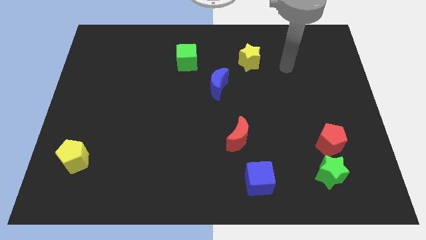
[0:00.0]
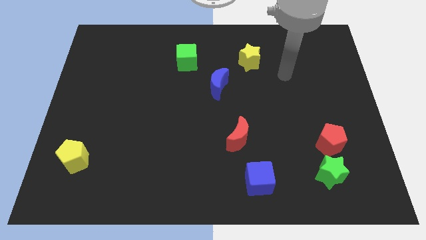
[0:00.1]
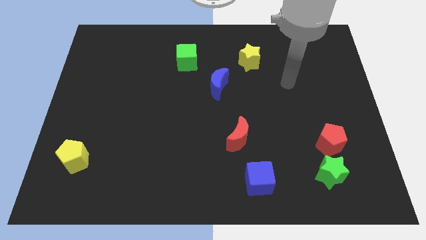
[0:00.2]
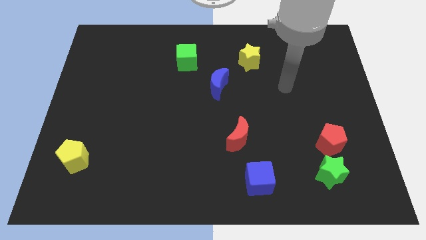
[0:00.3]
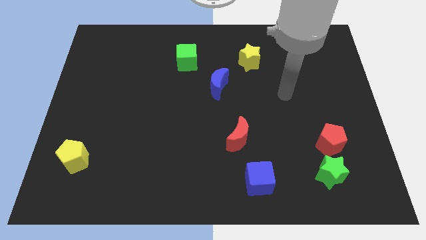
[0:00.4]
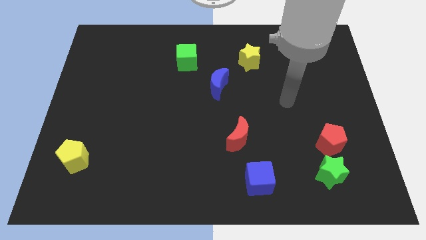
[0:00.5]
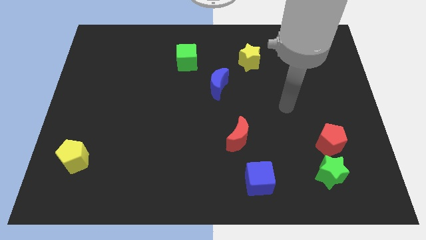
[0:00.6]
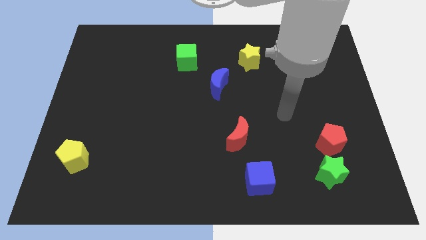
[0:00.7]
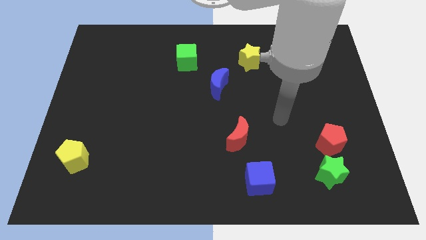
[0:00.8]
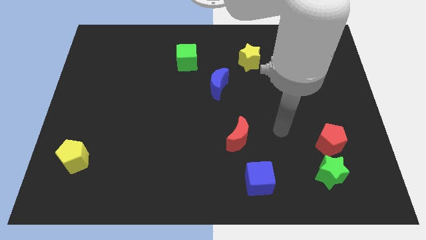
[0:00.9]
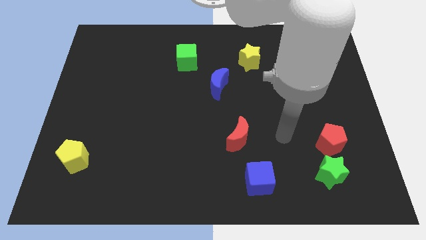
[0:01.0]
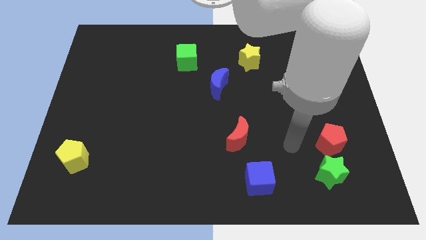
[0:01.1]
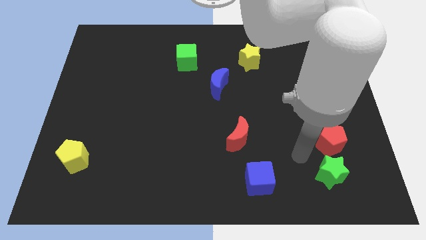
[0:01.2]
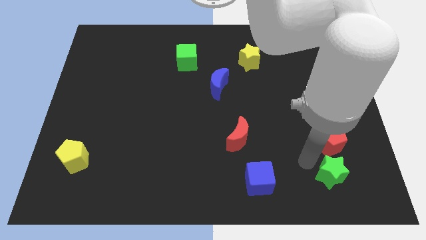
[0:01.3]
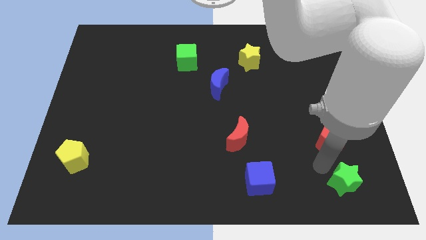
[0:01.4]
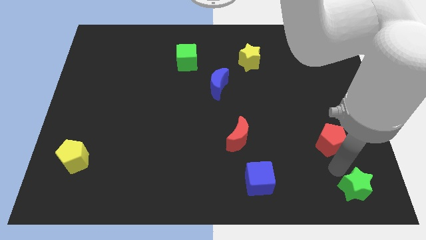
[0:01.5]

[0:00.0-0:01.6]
move the red pentagon away from the green star

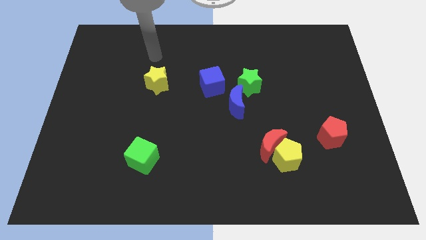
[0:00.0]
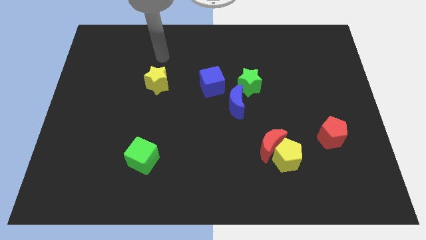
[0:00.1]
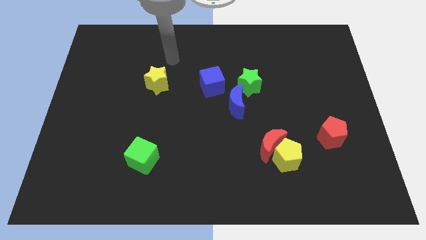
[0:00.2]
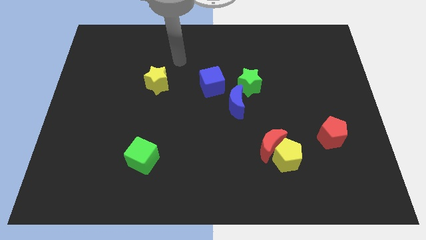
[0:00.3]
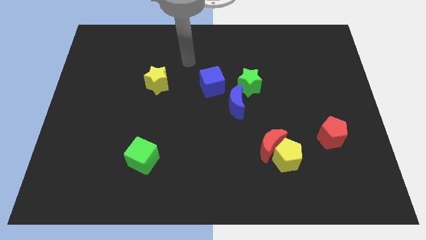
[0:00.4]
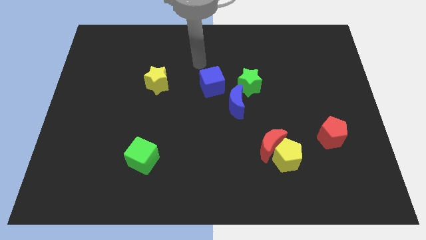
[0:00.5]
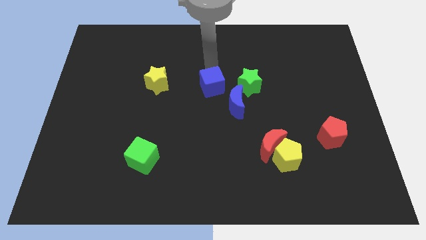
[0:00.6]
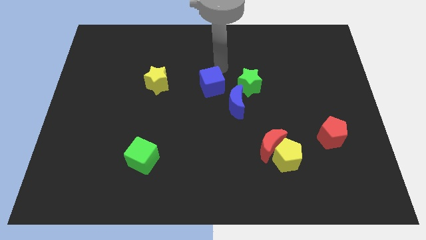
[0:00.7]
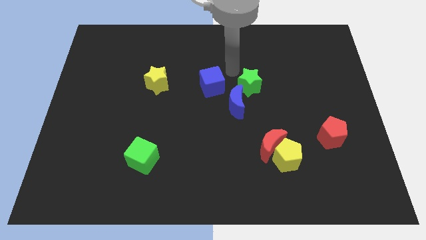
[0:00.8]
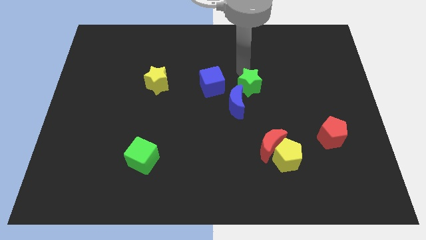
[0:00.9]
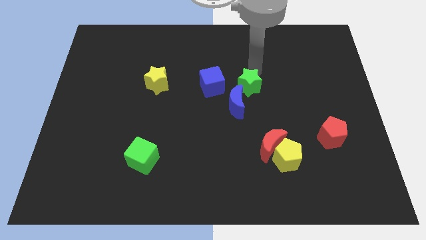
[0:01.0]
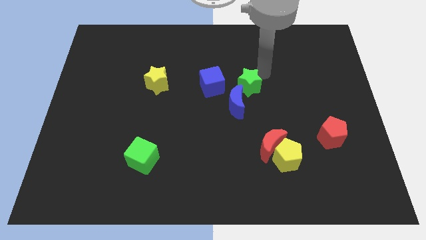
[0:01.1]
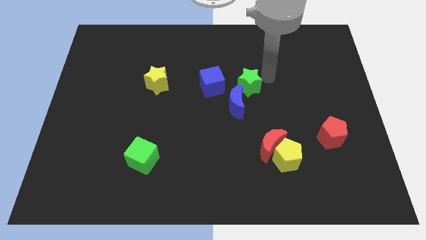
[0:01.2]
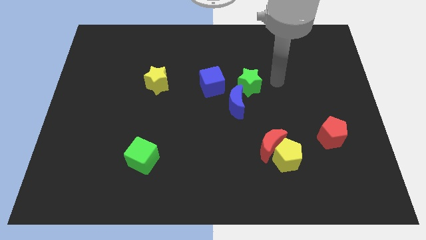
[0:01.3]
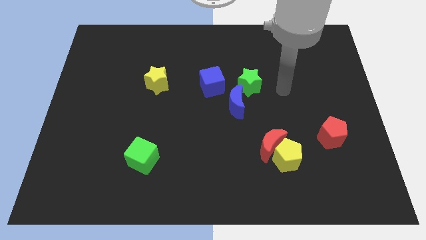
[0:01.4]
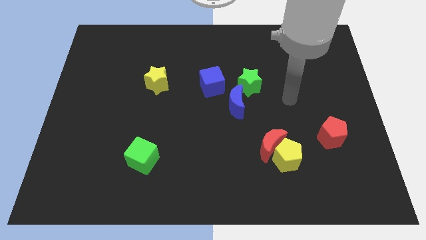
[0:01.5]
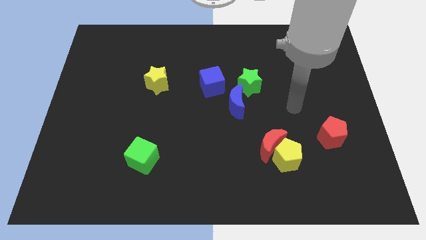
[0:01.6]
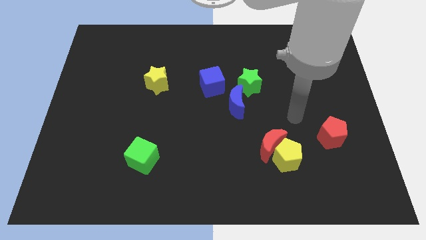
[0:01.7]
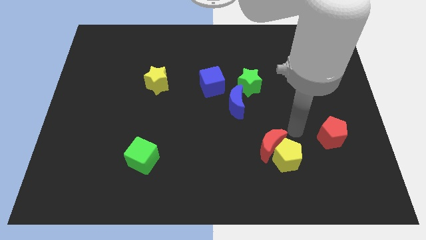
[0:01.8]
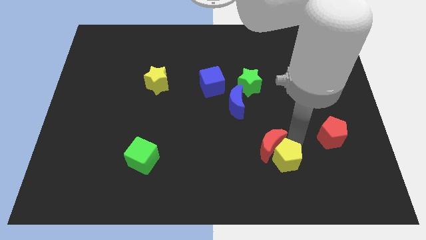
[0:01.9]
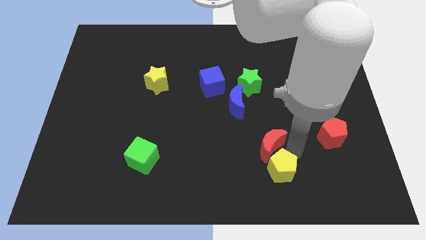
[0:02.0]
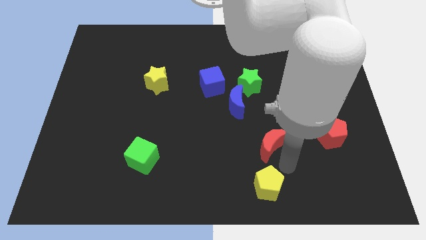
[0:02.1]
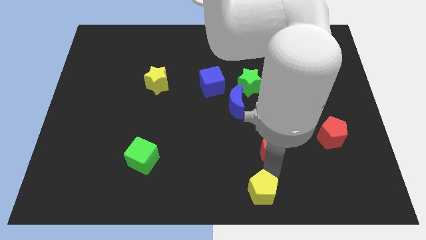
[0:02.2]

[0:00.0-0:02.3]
pull the red moon apart from the yellow pentagon

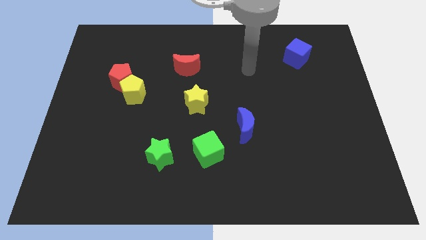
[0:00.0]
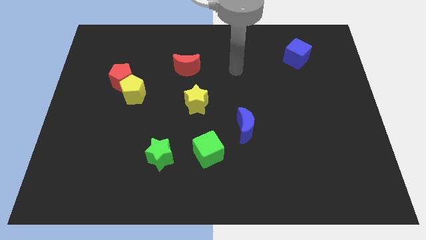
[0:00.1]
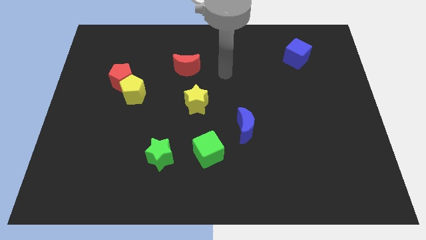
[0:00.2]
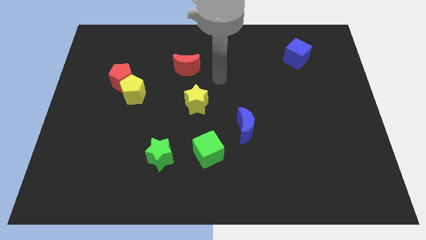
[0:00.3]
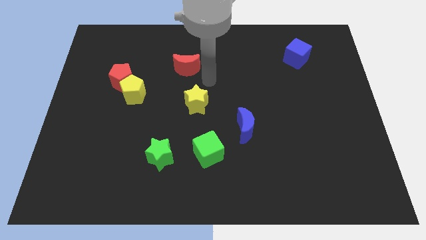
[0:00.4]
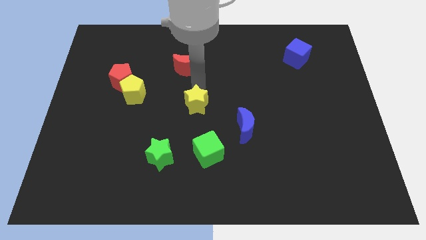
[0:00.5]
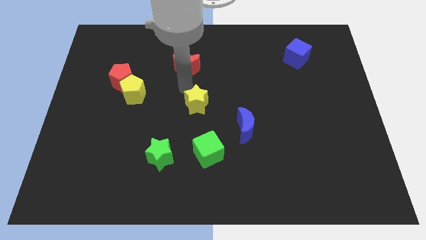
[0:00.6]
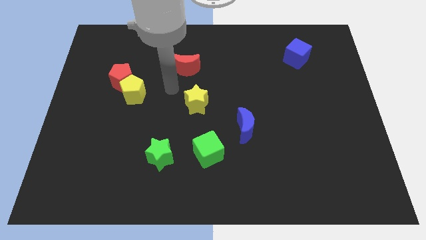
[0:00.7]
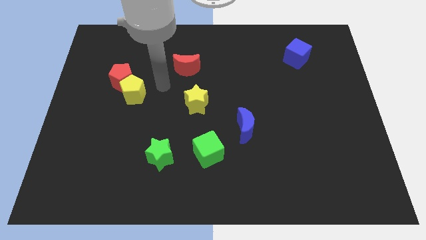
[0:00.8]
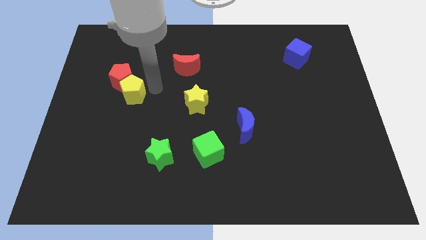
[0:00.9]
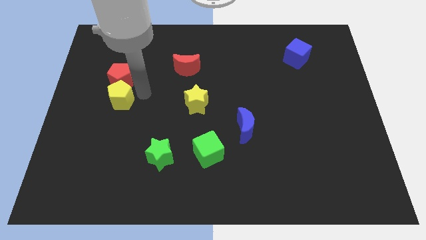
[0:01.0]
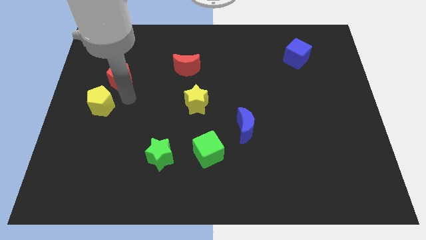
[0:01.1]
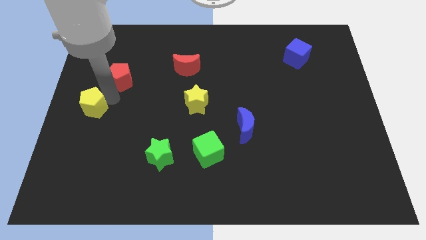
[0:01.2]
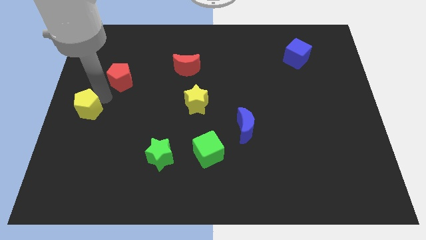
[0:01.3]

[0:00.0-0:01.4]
pull the red pentagon apart from the yellow pentagon

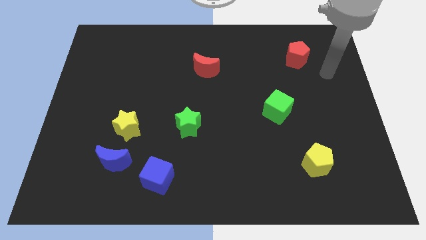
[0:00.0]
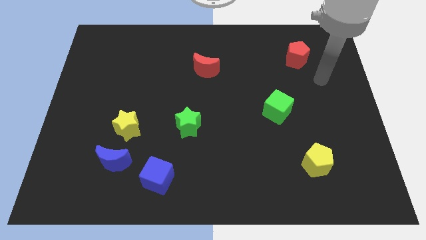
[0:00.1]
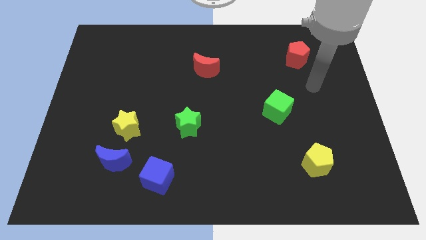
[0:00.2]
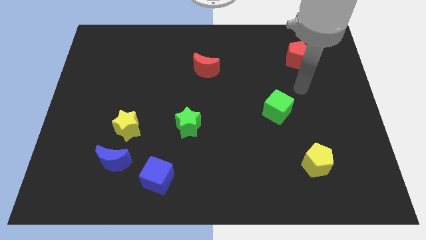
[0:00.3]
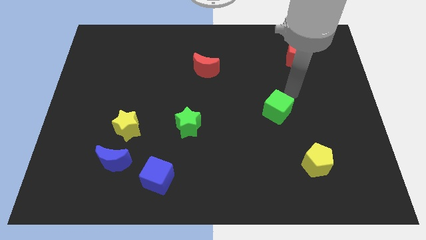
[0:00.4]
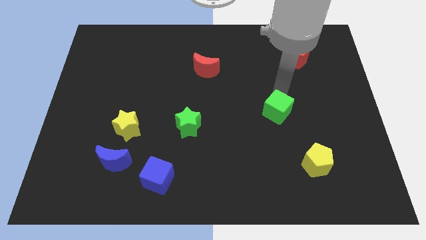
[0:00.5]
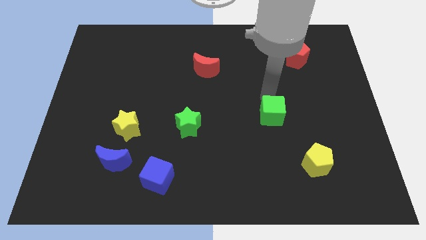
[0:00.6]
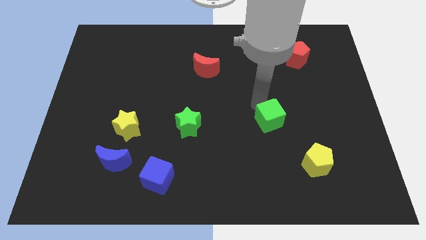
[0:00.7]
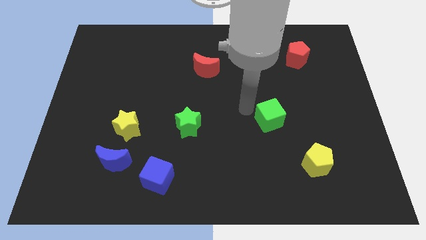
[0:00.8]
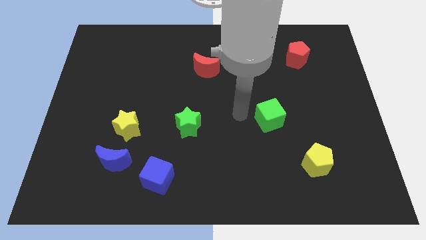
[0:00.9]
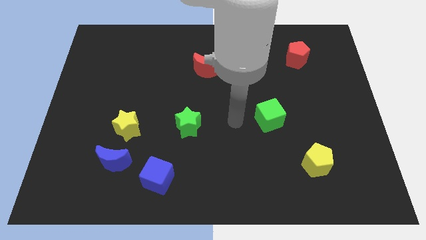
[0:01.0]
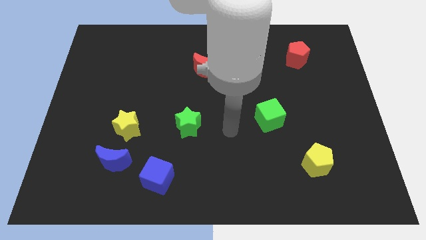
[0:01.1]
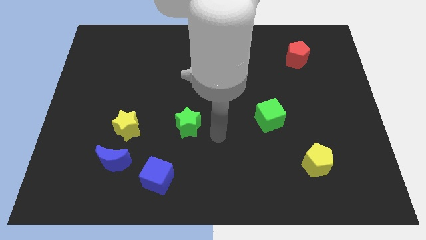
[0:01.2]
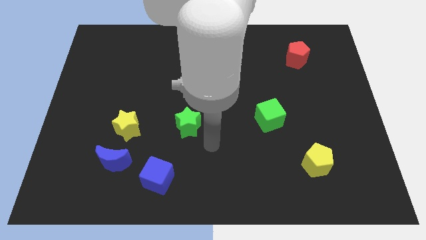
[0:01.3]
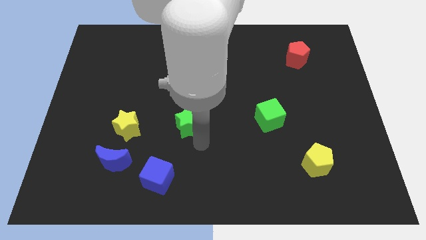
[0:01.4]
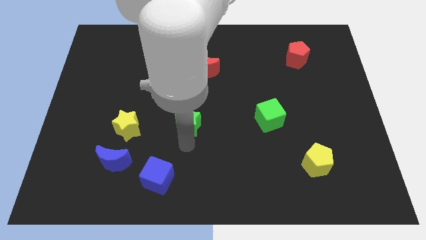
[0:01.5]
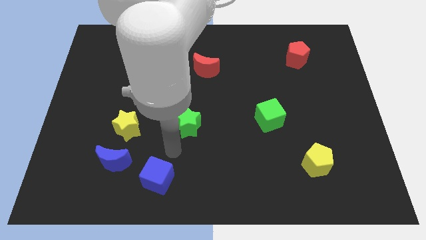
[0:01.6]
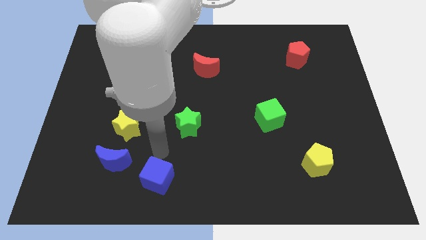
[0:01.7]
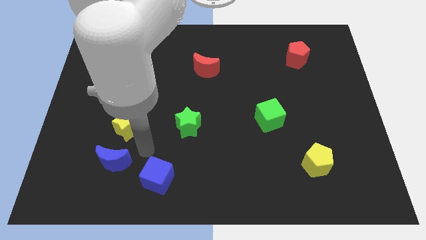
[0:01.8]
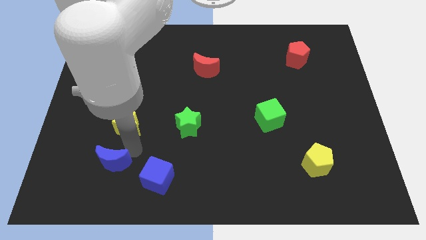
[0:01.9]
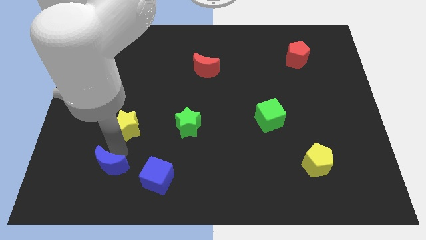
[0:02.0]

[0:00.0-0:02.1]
pull the yellow star apart from the blue moon

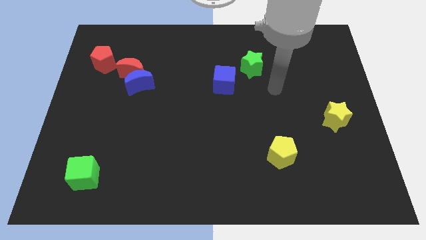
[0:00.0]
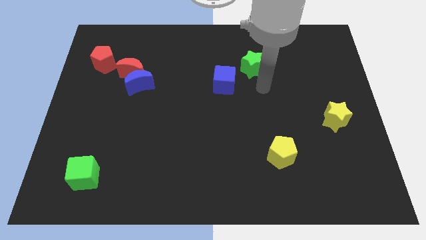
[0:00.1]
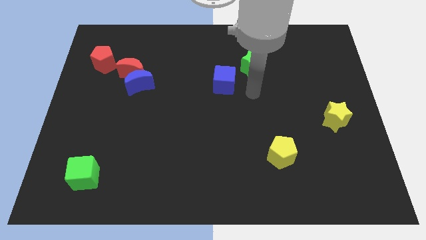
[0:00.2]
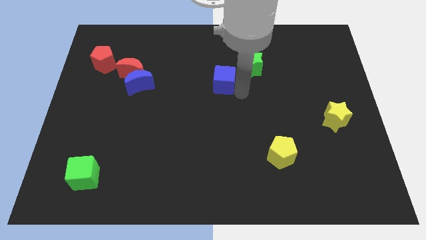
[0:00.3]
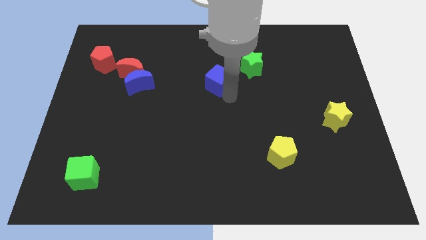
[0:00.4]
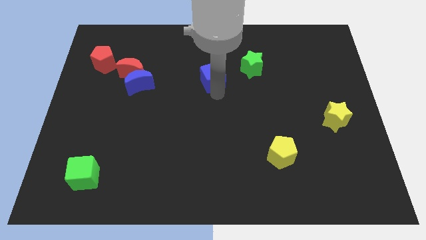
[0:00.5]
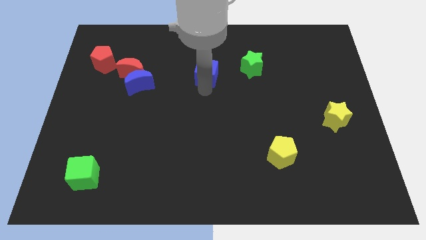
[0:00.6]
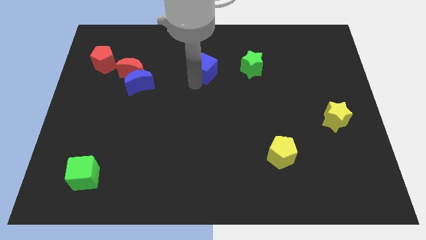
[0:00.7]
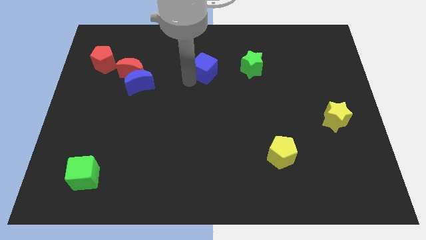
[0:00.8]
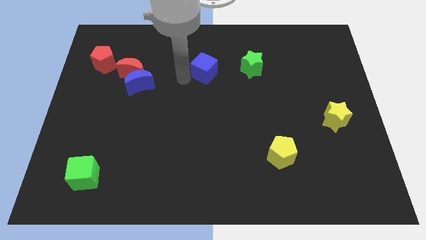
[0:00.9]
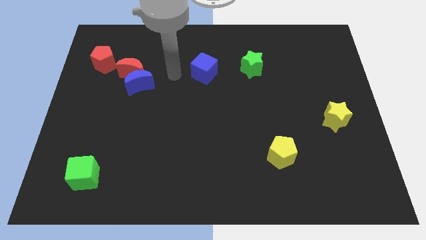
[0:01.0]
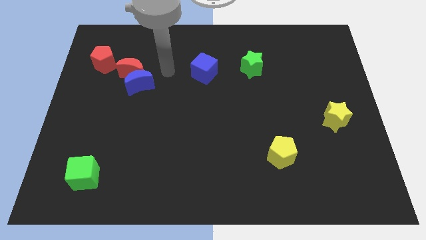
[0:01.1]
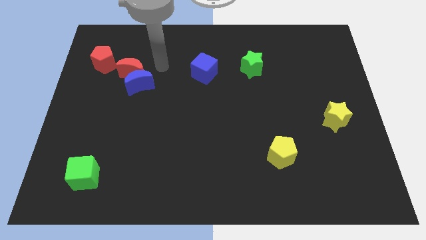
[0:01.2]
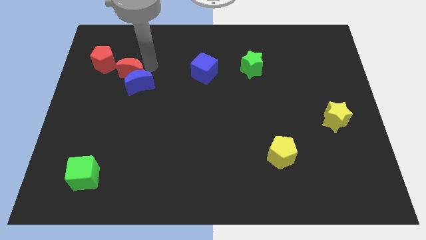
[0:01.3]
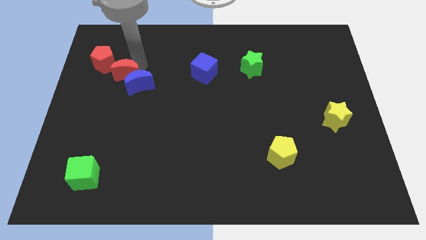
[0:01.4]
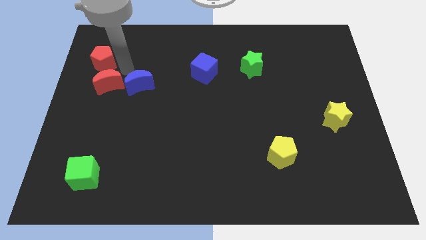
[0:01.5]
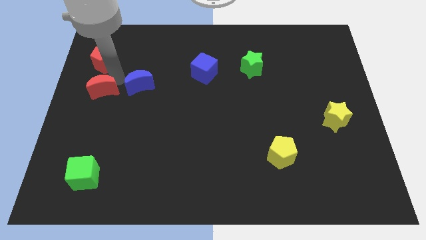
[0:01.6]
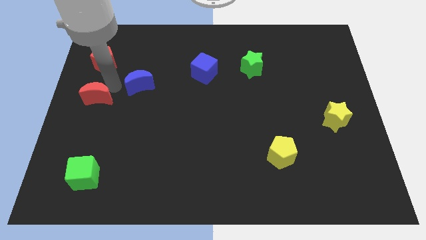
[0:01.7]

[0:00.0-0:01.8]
separate the blue moon from the red moon
